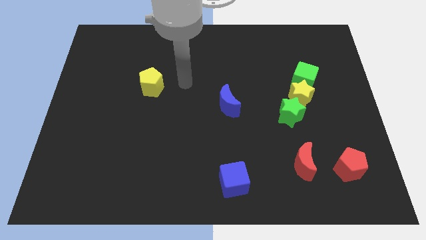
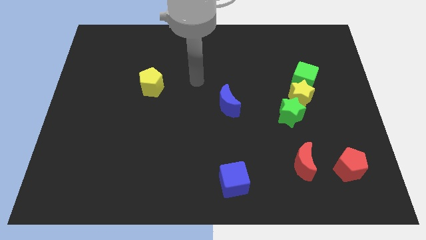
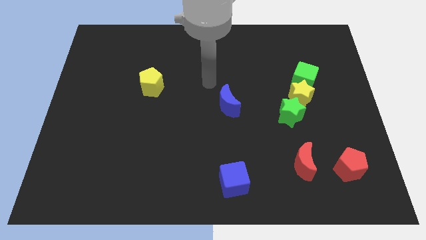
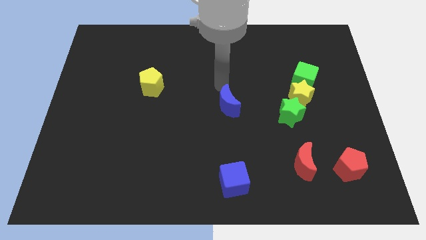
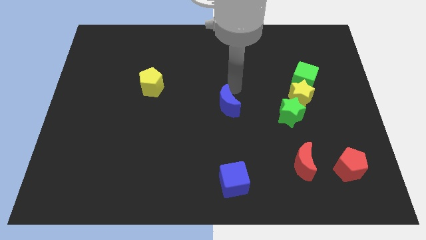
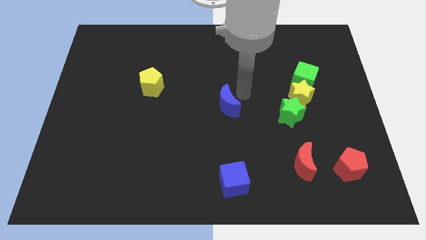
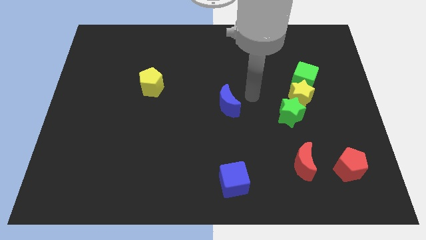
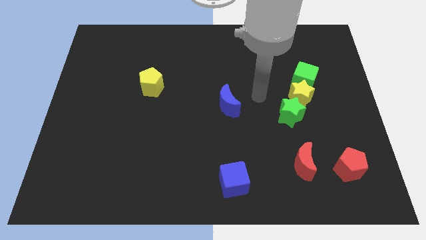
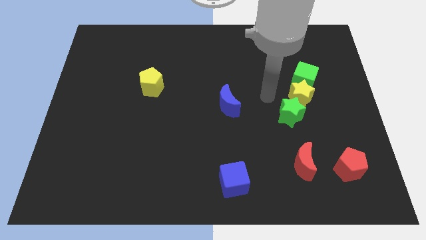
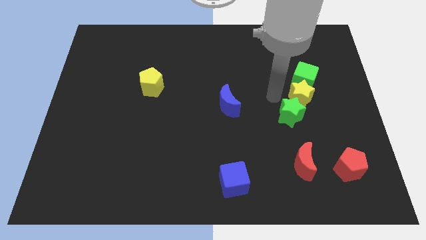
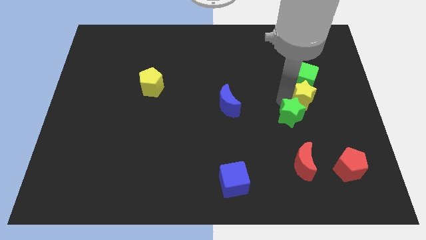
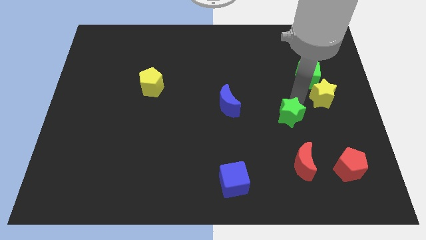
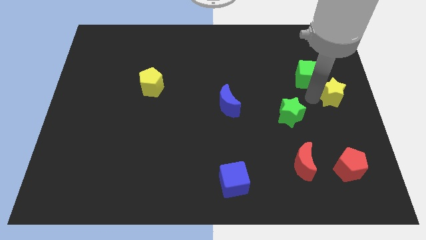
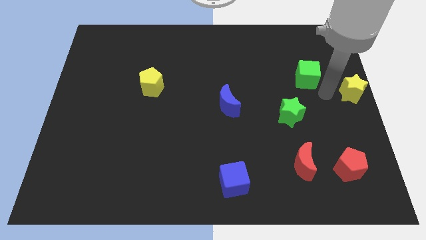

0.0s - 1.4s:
separate the green cube from the yellow star

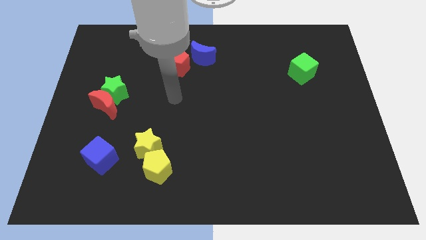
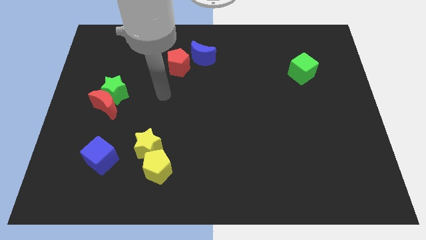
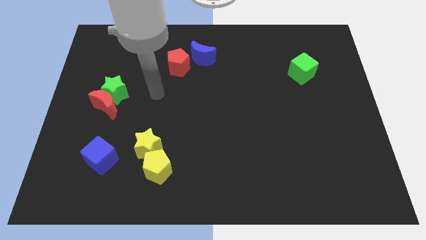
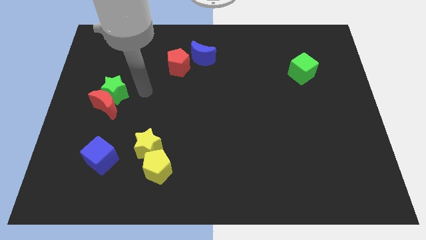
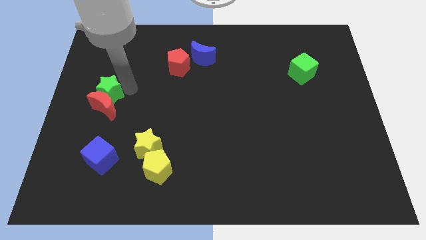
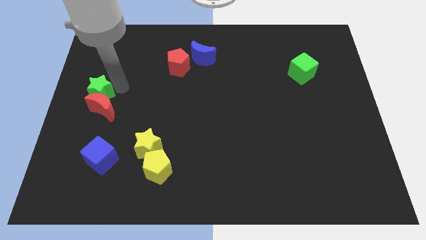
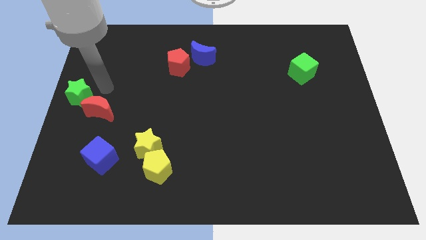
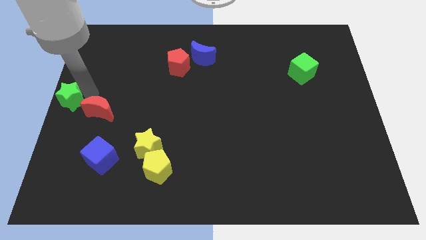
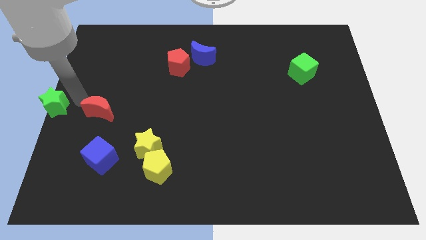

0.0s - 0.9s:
separate the red moon from the green star

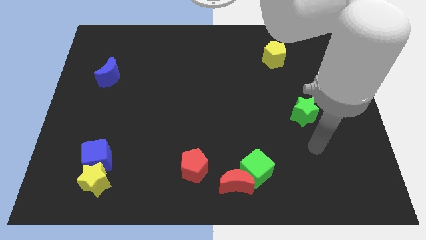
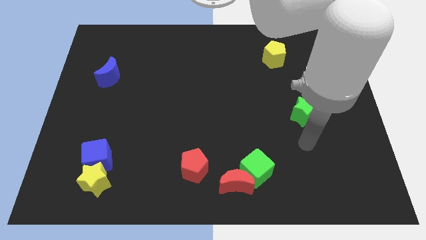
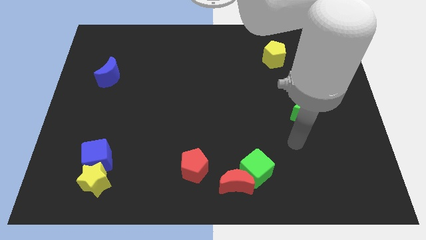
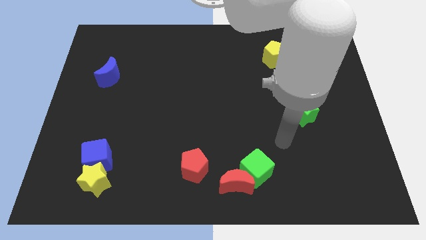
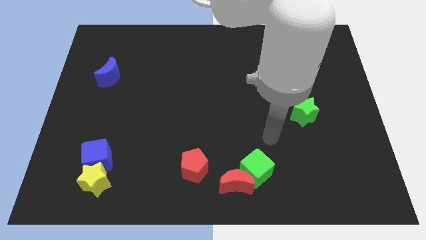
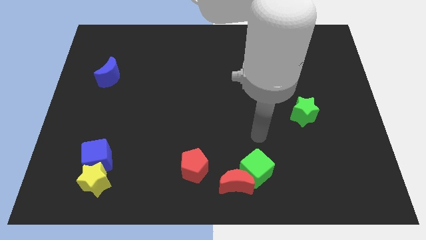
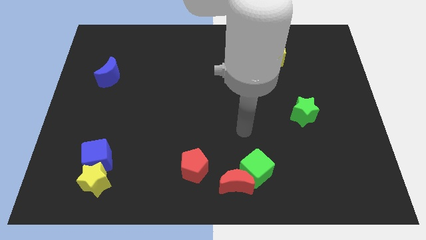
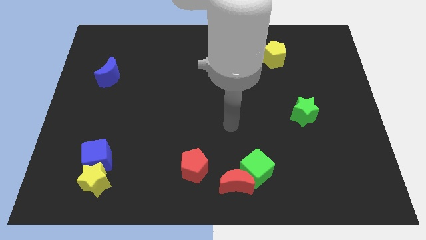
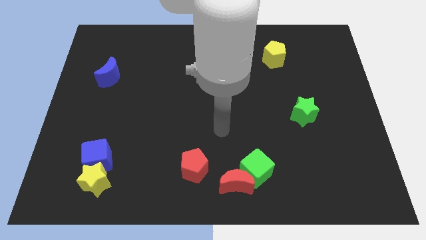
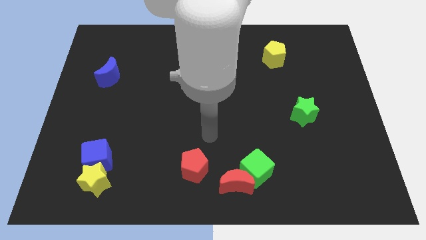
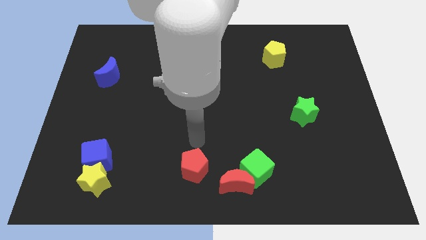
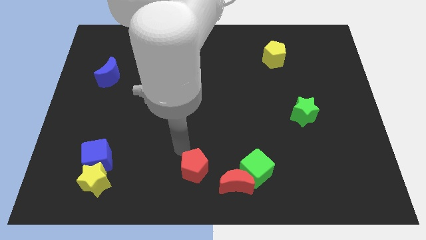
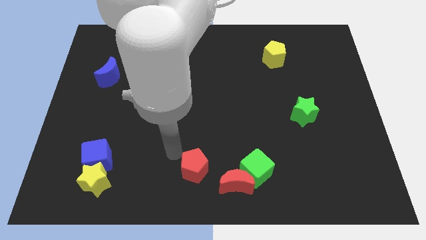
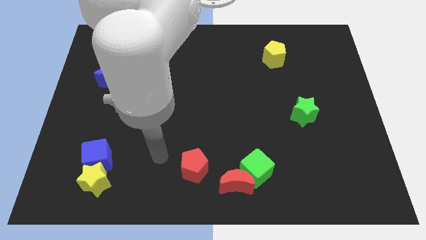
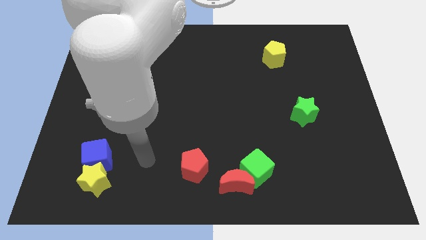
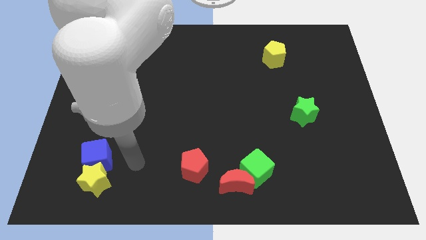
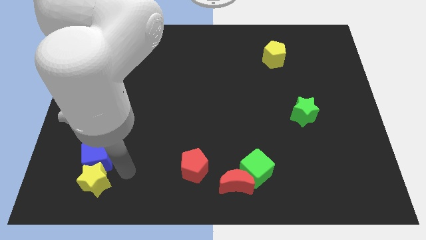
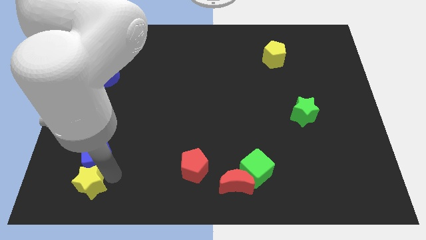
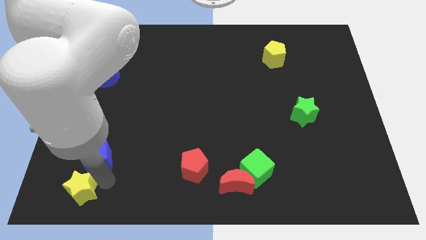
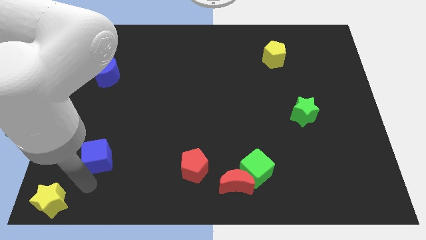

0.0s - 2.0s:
move the blue cube away from the yellow star

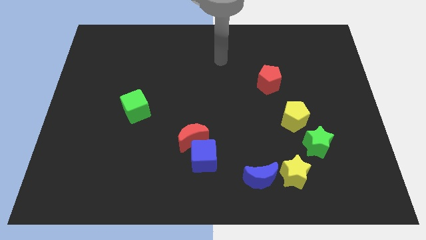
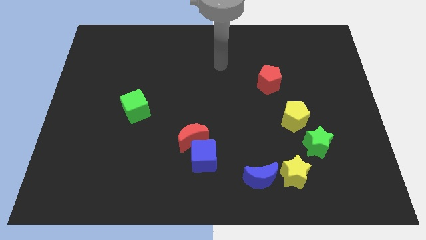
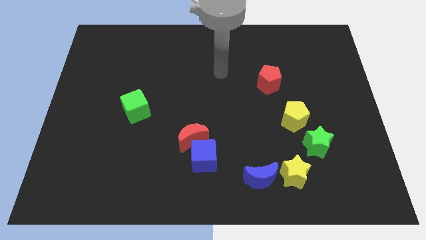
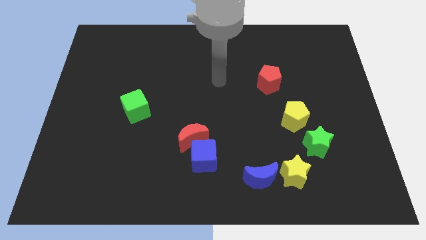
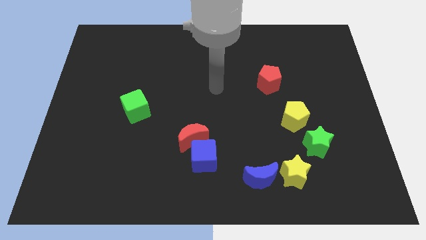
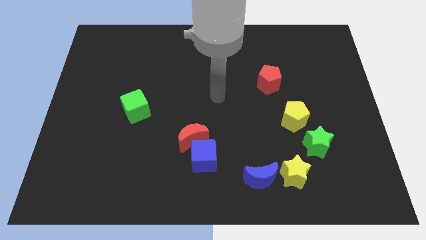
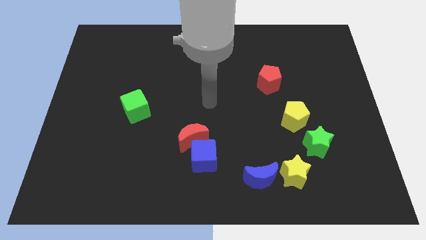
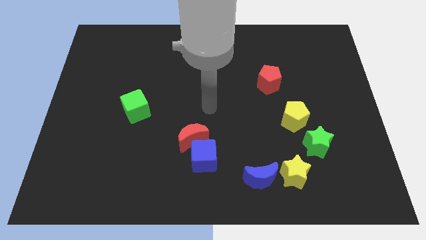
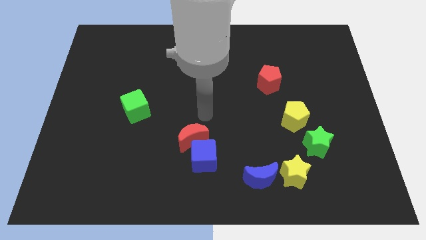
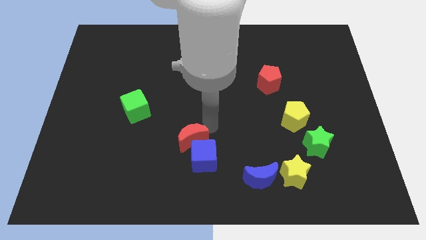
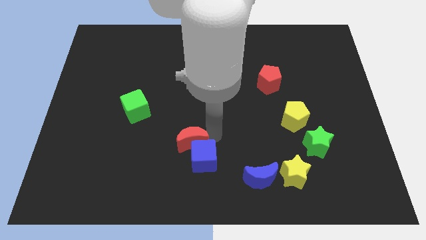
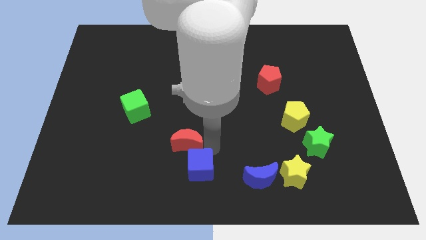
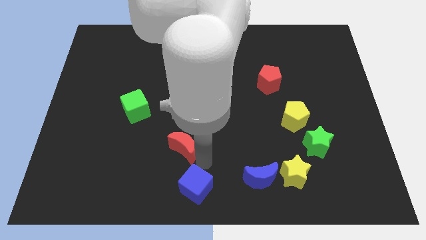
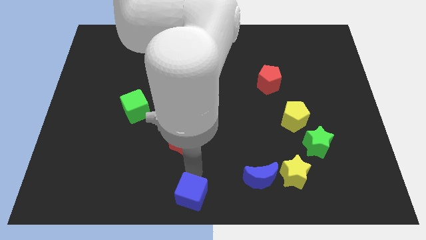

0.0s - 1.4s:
move the red moon away from the blue cube

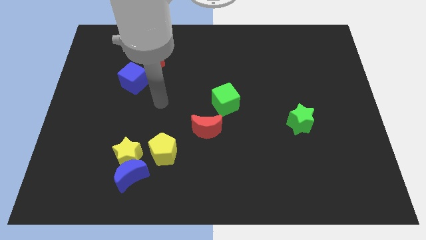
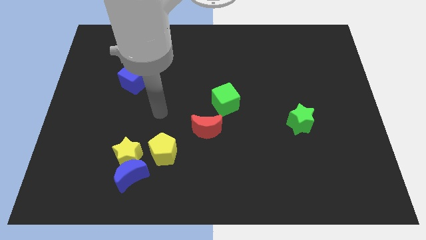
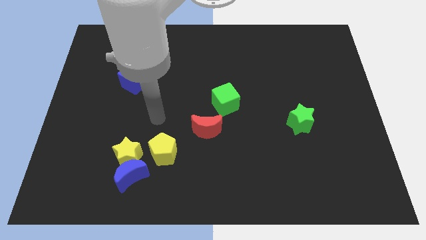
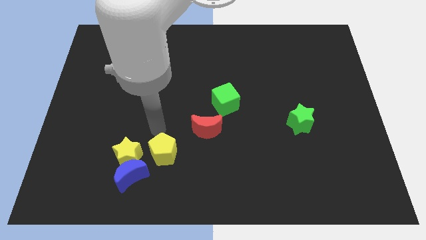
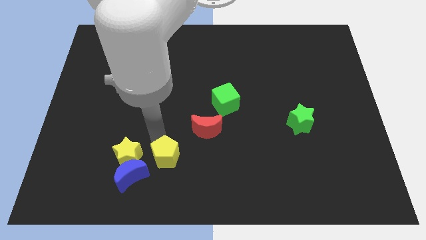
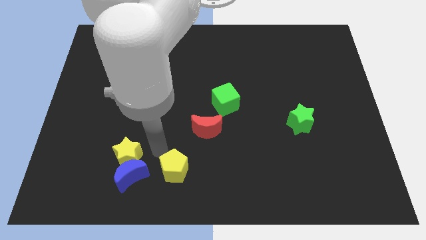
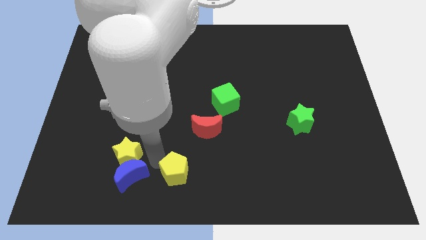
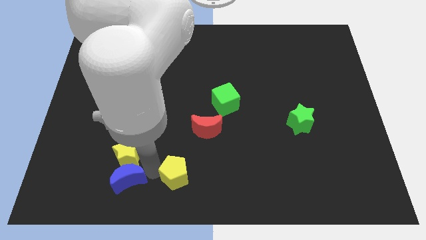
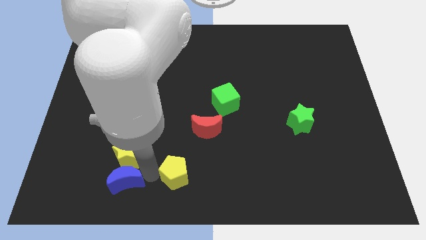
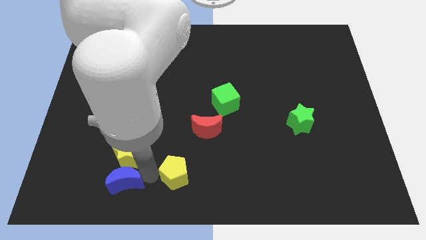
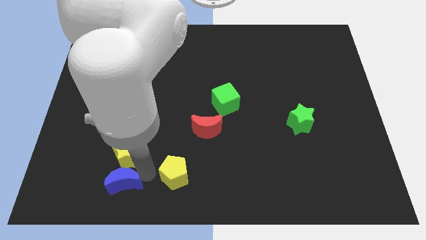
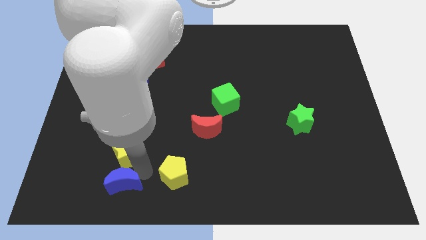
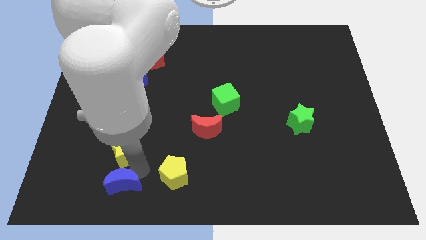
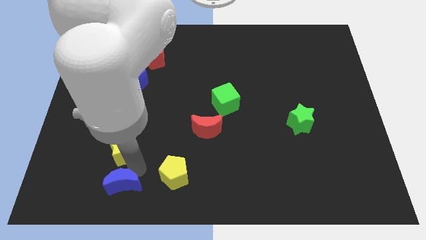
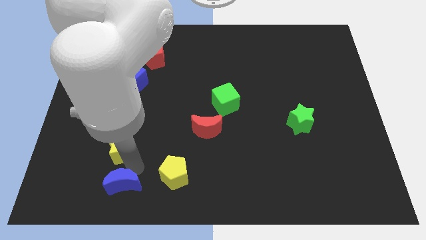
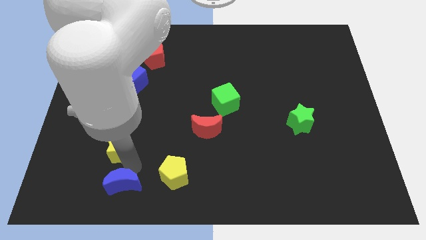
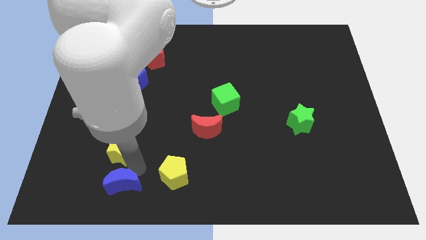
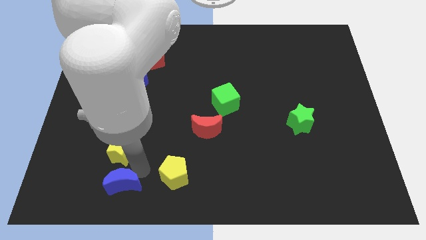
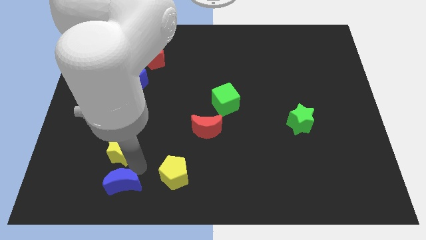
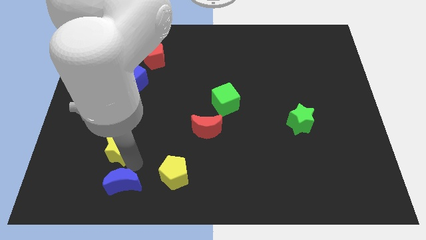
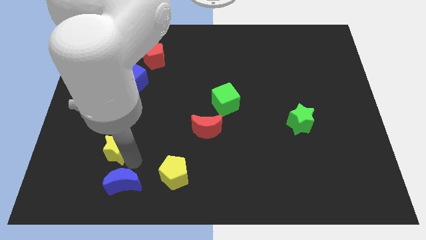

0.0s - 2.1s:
separate the yellow star from the blue moon and yellow pentagon

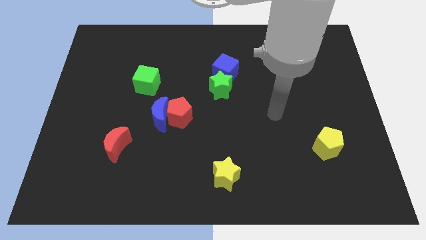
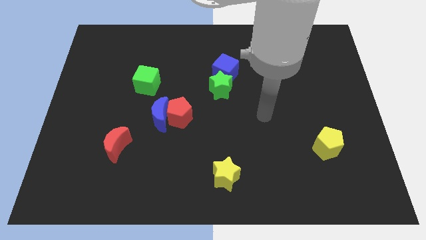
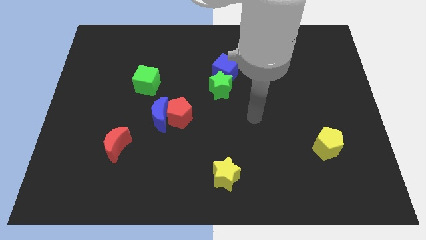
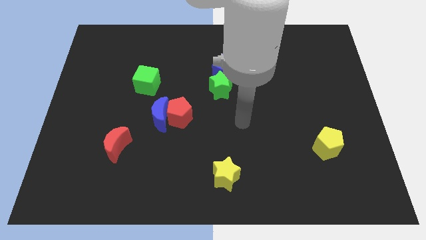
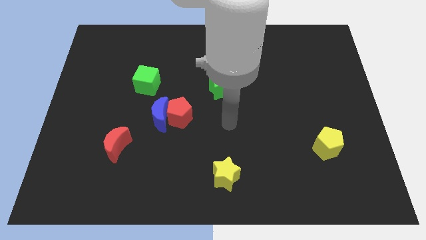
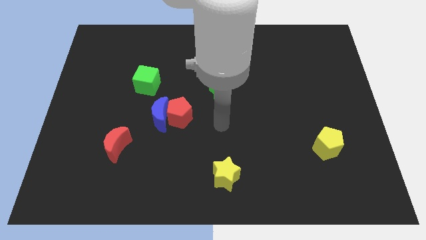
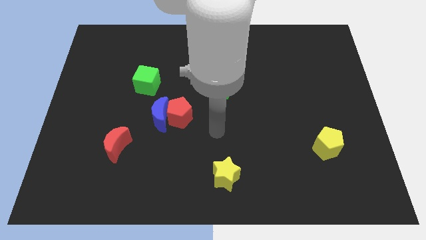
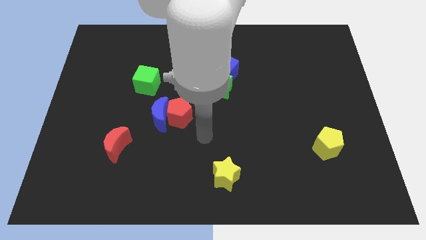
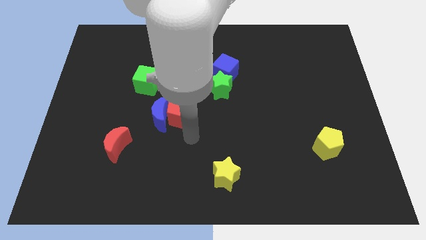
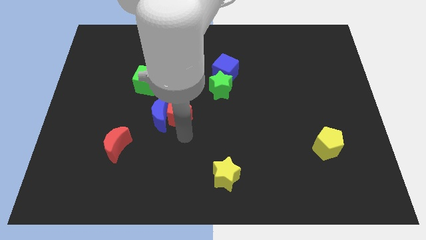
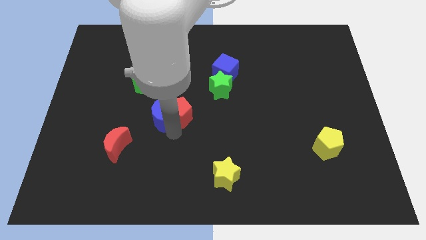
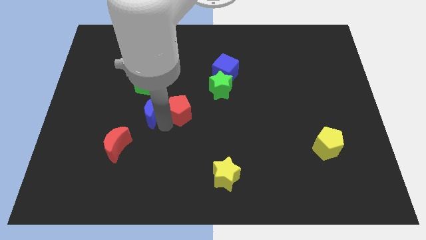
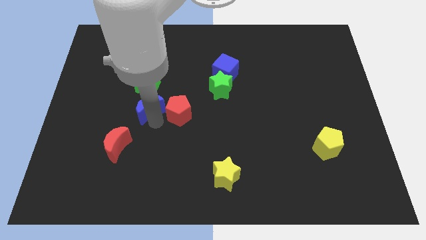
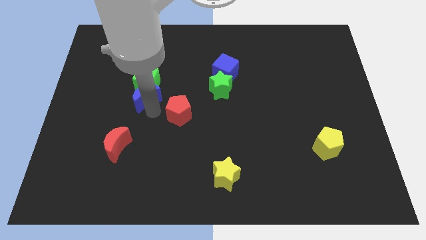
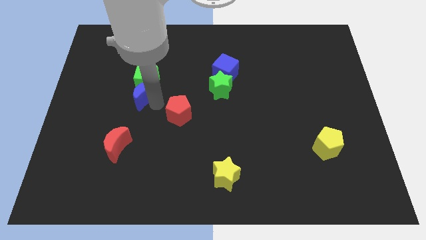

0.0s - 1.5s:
move the red pentagon away from the blue moon
